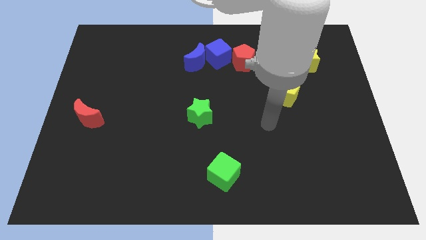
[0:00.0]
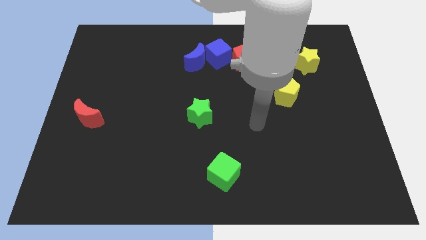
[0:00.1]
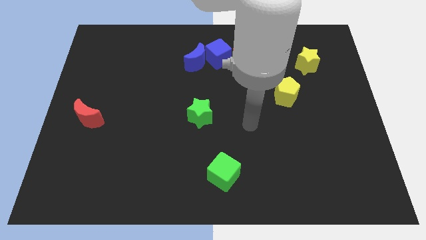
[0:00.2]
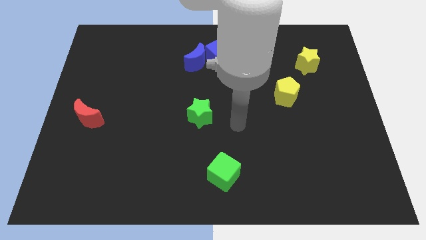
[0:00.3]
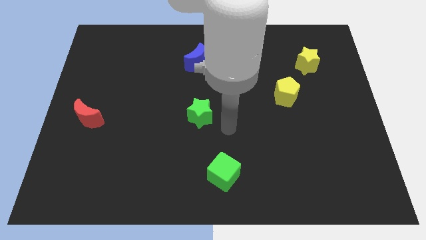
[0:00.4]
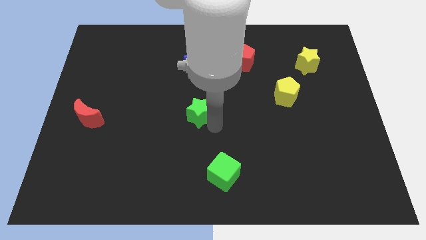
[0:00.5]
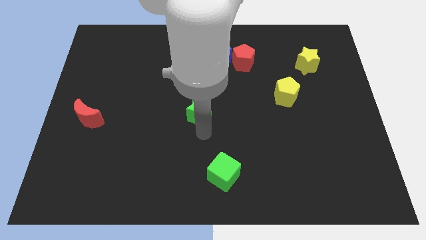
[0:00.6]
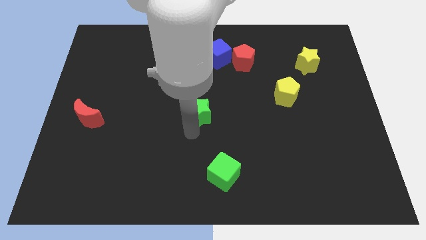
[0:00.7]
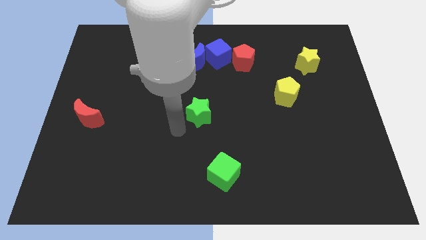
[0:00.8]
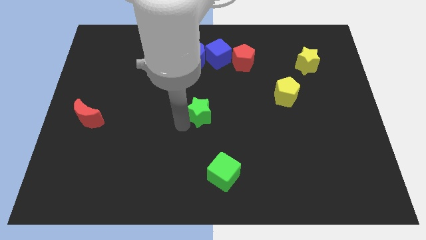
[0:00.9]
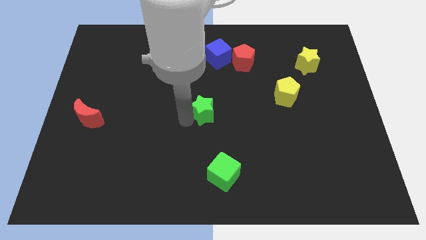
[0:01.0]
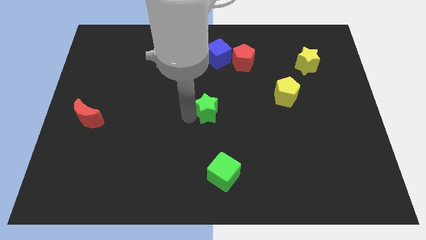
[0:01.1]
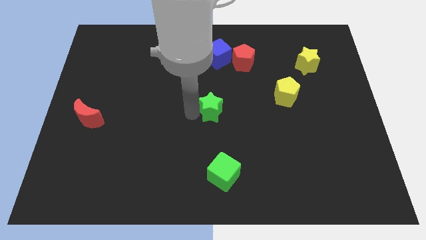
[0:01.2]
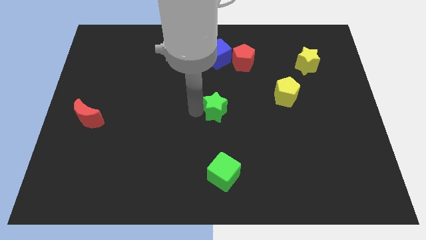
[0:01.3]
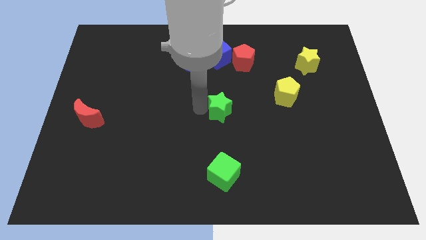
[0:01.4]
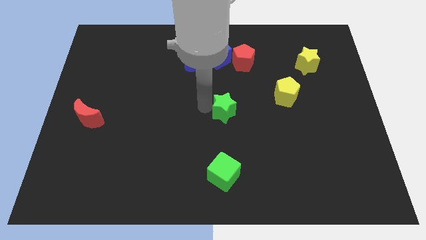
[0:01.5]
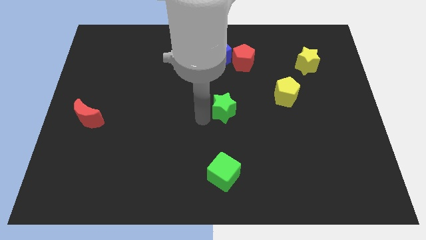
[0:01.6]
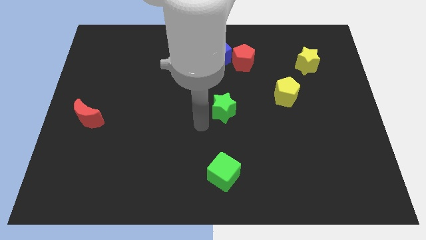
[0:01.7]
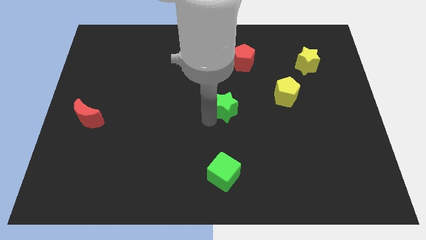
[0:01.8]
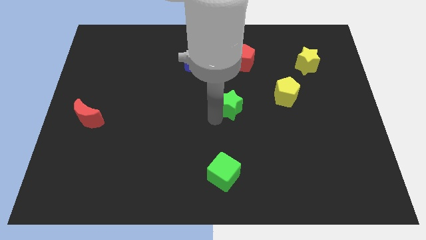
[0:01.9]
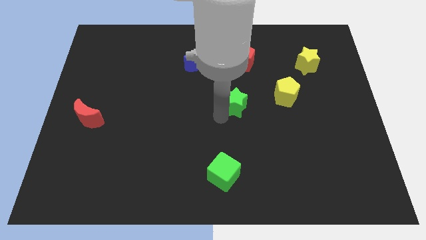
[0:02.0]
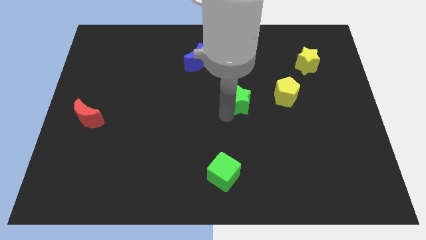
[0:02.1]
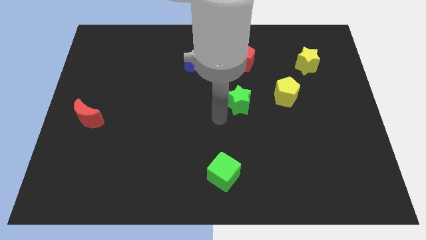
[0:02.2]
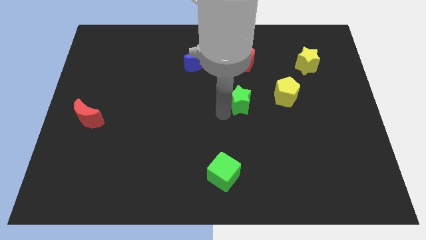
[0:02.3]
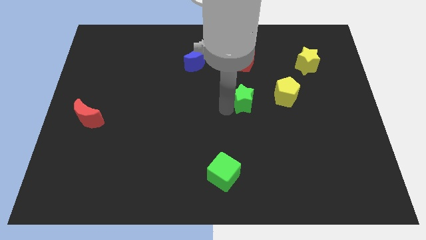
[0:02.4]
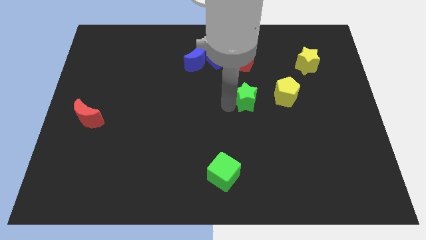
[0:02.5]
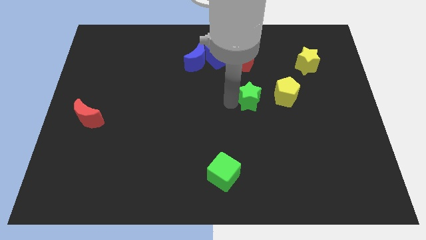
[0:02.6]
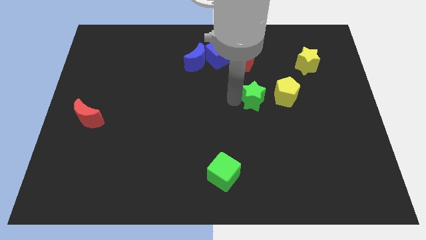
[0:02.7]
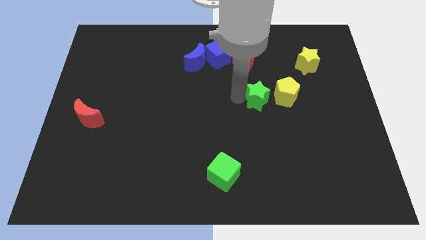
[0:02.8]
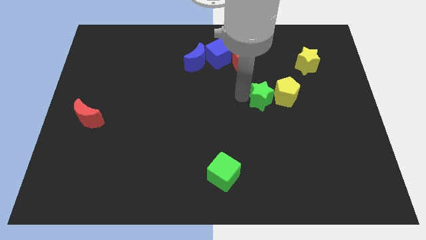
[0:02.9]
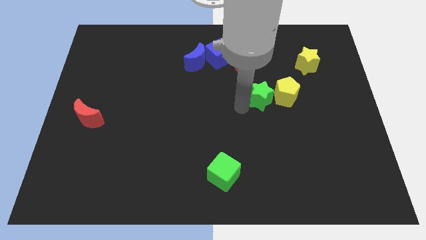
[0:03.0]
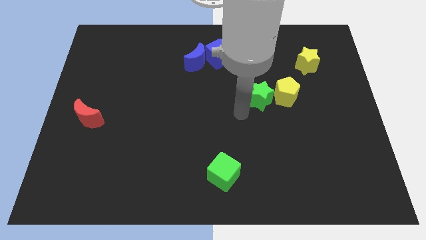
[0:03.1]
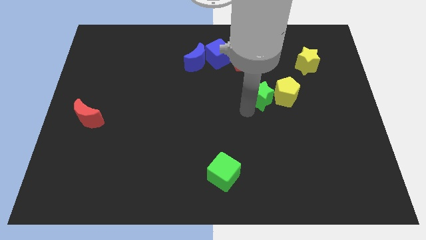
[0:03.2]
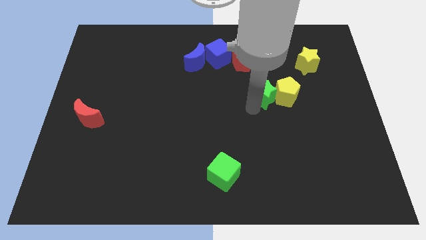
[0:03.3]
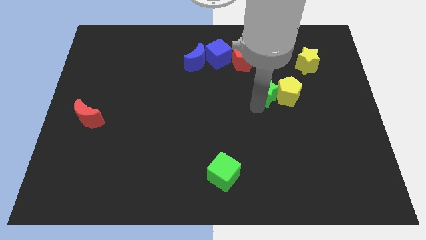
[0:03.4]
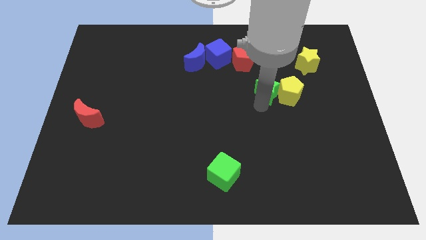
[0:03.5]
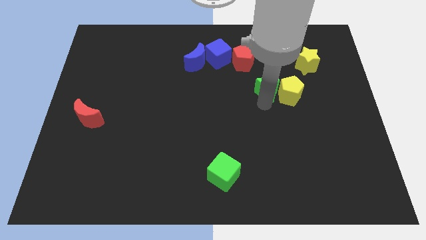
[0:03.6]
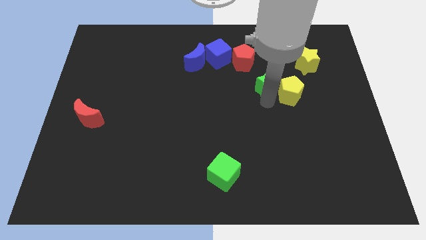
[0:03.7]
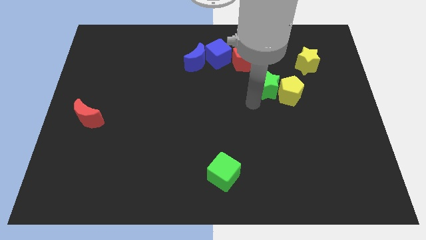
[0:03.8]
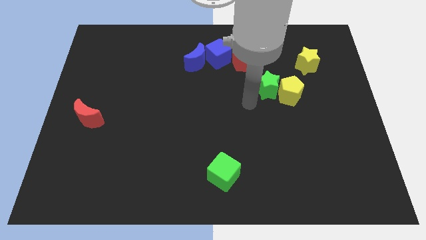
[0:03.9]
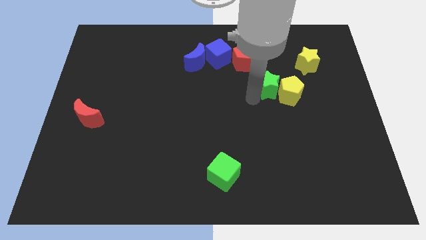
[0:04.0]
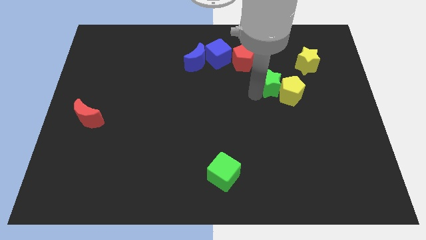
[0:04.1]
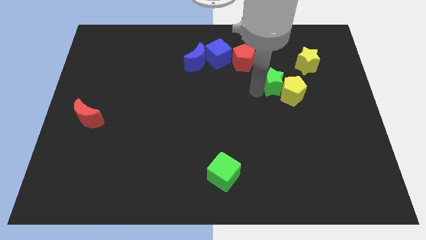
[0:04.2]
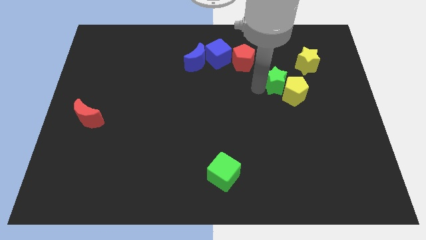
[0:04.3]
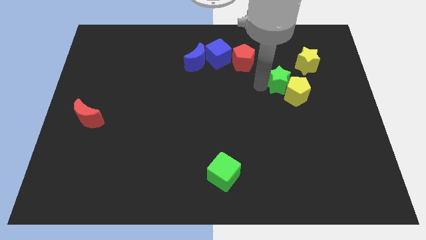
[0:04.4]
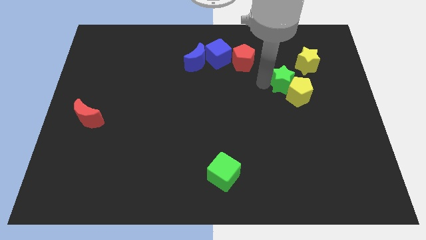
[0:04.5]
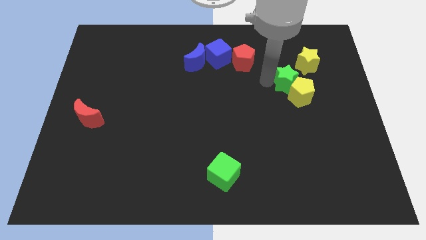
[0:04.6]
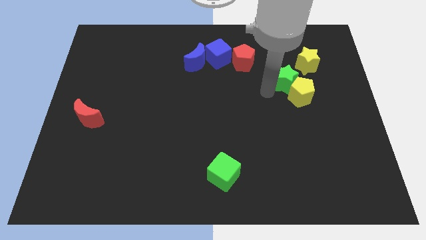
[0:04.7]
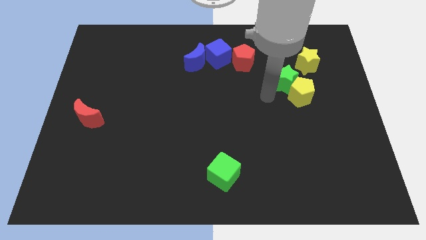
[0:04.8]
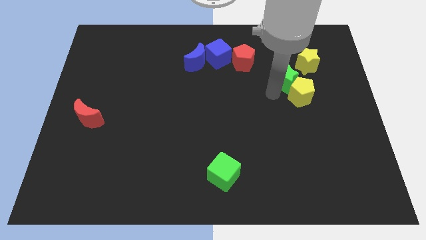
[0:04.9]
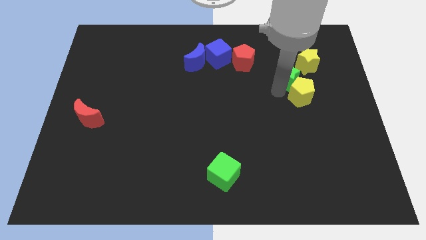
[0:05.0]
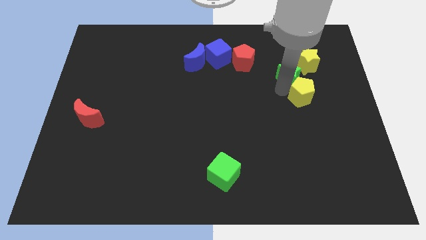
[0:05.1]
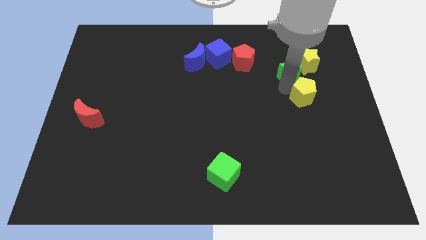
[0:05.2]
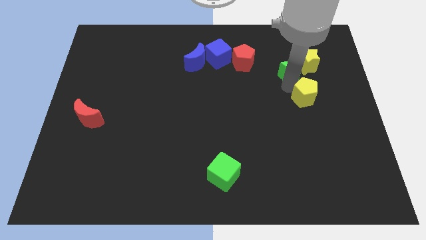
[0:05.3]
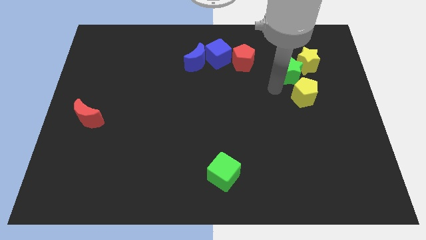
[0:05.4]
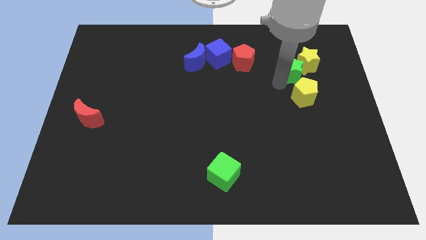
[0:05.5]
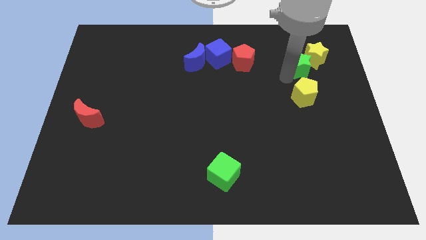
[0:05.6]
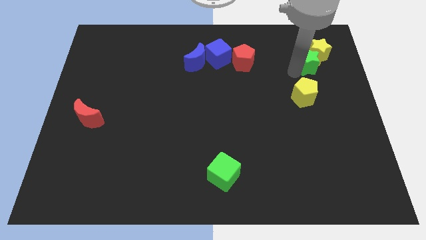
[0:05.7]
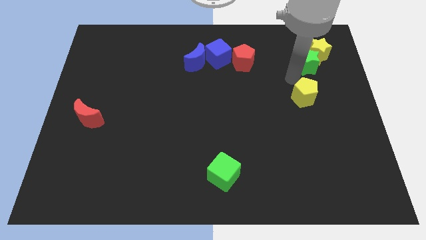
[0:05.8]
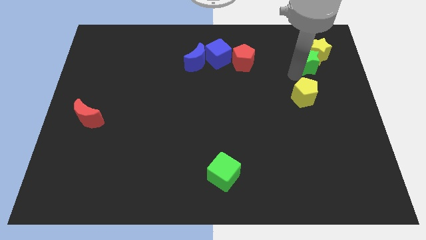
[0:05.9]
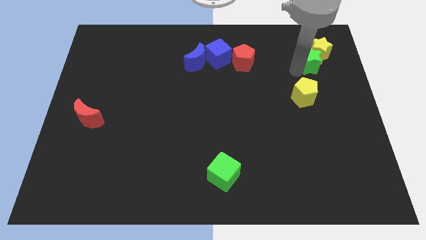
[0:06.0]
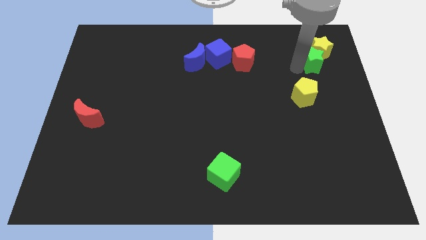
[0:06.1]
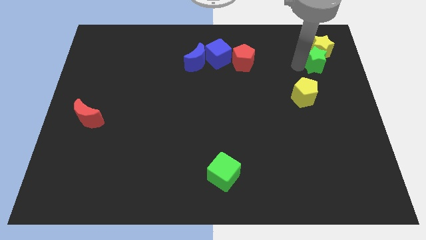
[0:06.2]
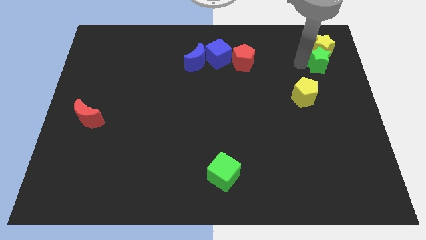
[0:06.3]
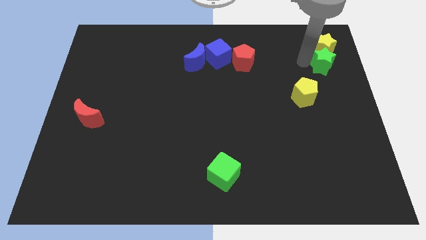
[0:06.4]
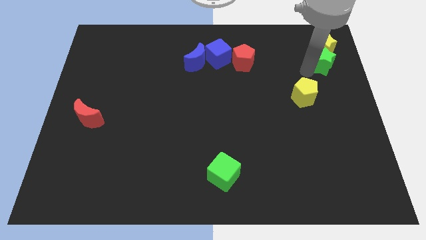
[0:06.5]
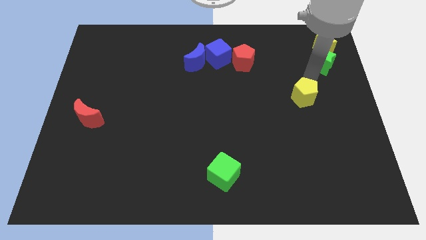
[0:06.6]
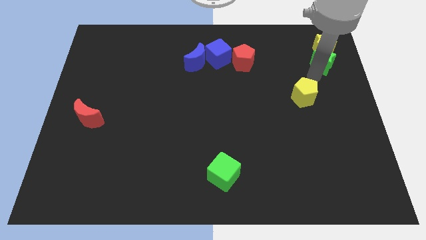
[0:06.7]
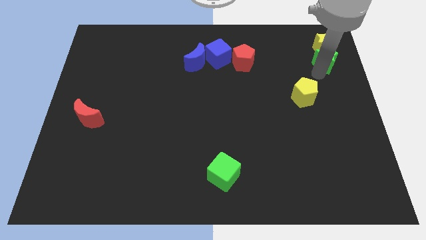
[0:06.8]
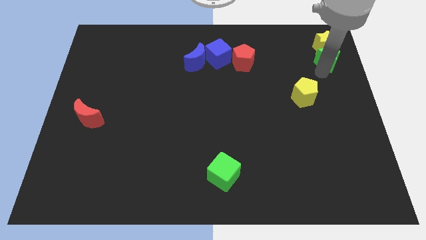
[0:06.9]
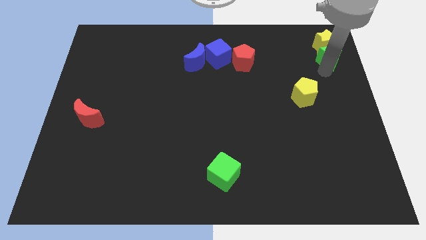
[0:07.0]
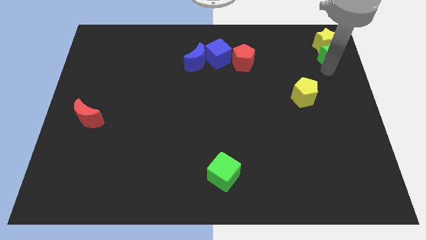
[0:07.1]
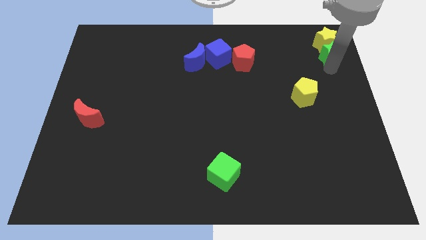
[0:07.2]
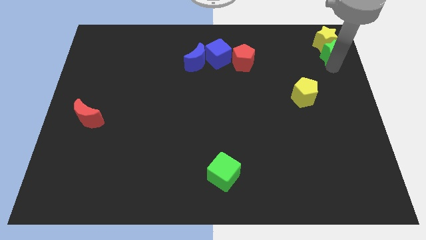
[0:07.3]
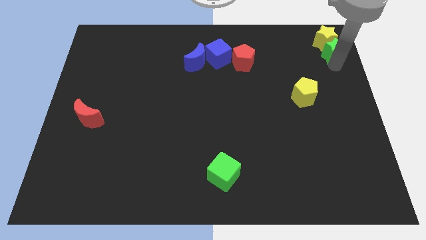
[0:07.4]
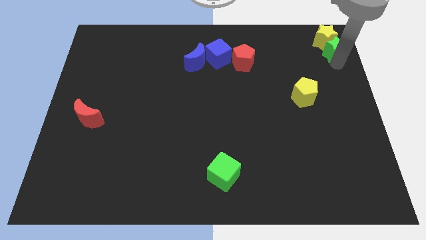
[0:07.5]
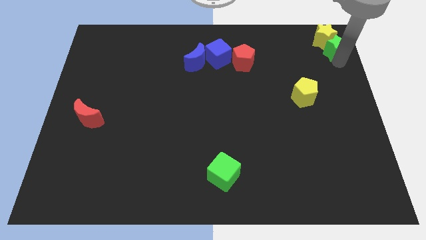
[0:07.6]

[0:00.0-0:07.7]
put the green star to the top right
